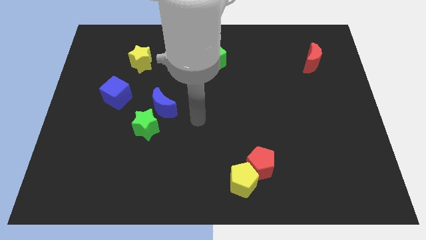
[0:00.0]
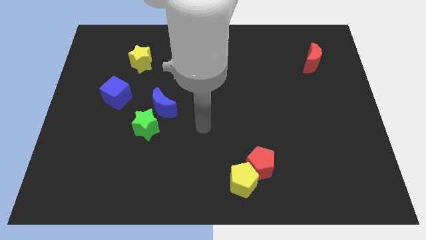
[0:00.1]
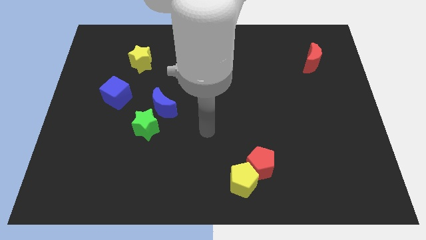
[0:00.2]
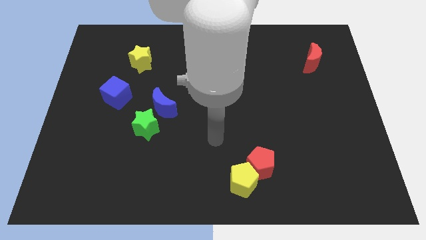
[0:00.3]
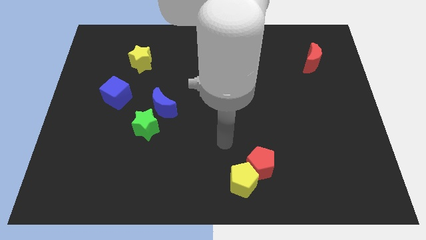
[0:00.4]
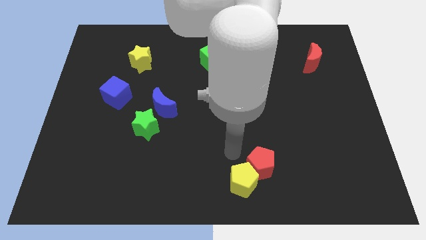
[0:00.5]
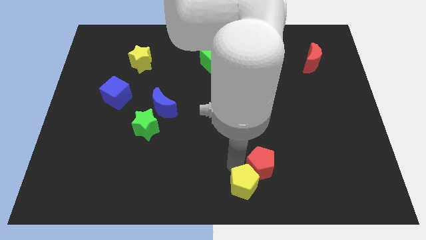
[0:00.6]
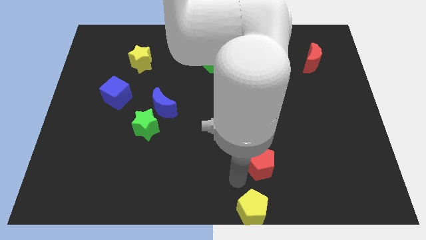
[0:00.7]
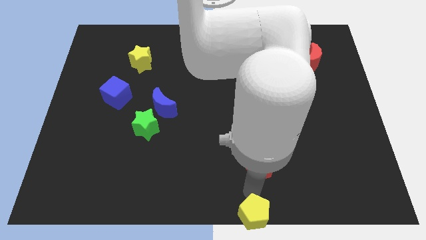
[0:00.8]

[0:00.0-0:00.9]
move the red pentagon away from the yellow pentagon

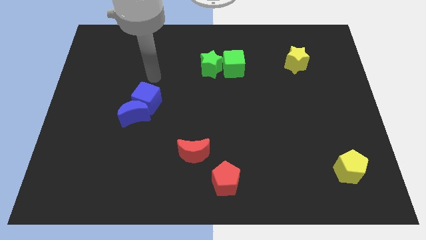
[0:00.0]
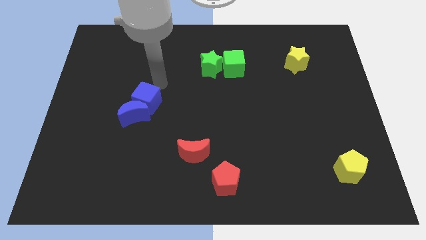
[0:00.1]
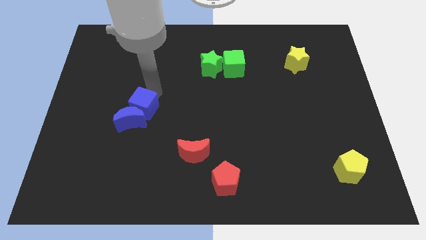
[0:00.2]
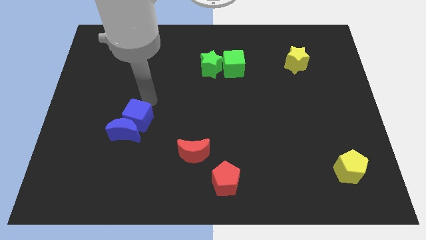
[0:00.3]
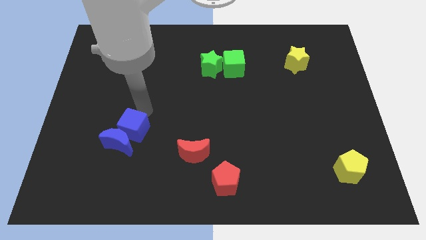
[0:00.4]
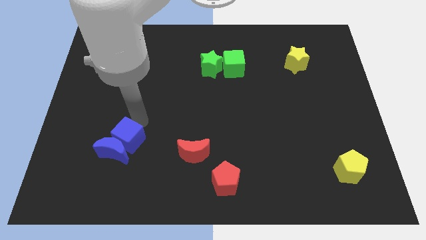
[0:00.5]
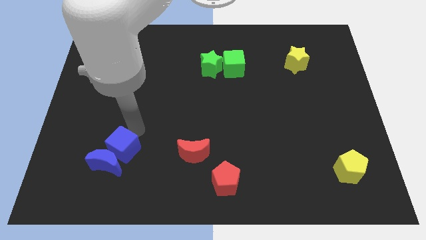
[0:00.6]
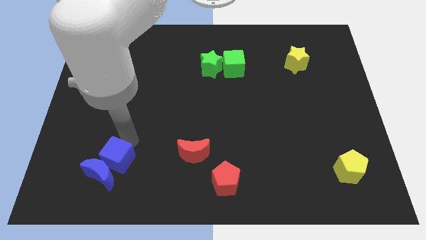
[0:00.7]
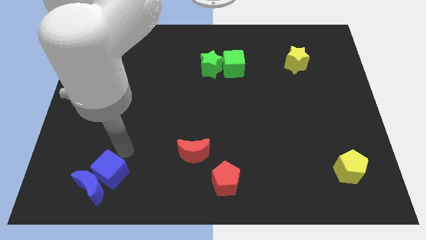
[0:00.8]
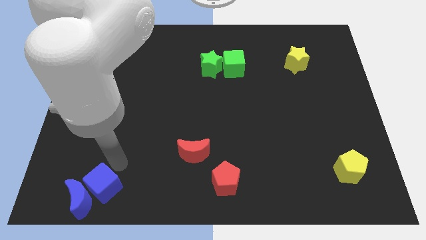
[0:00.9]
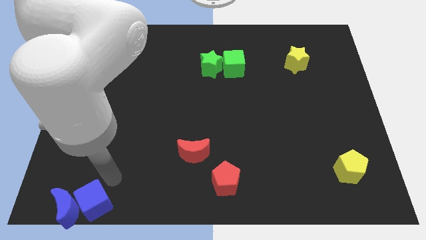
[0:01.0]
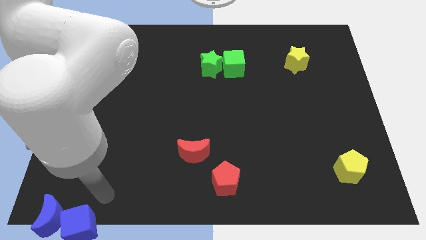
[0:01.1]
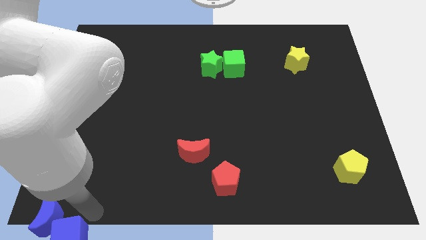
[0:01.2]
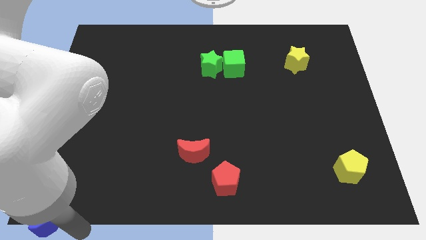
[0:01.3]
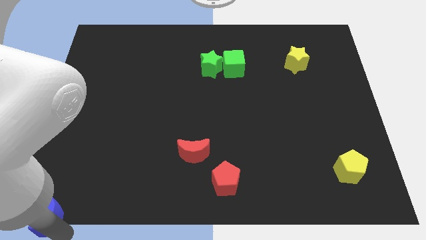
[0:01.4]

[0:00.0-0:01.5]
separate the blue moon from the blue cube

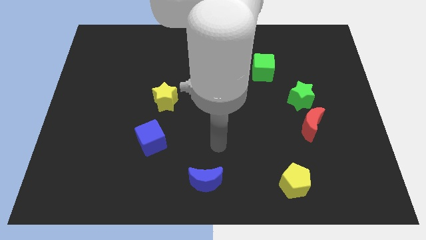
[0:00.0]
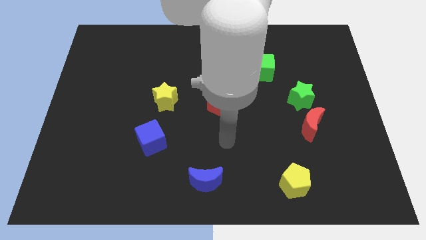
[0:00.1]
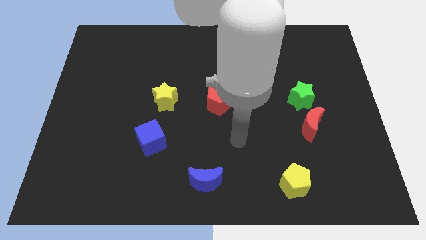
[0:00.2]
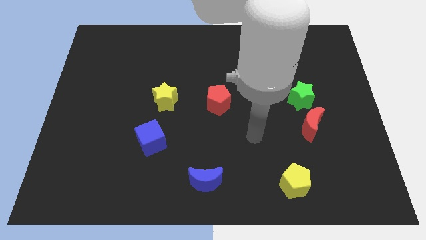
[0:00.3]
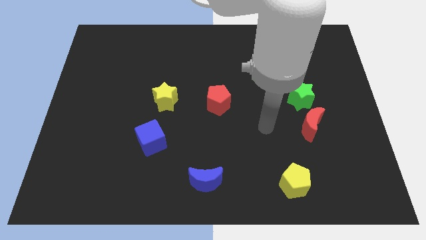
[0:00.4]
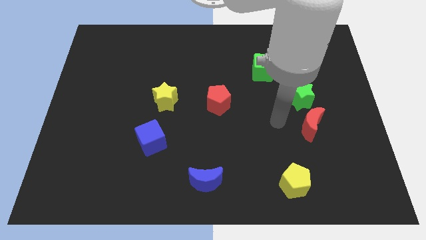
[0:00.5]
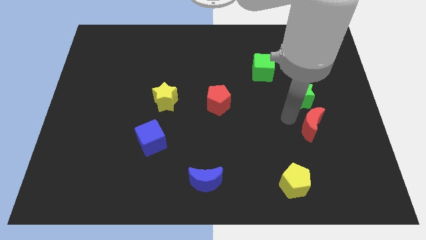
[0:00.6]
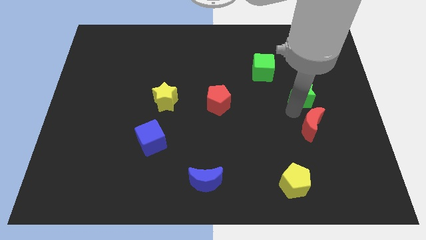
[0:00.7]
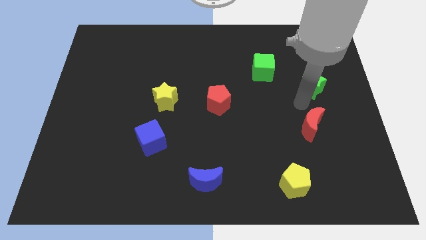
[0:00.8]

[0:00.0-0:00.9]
pull the red moon apart from the green star

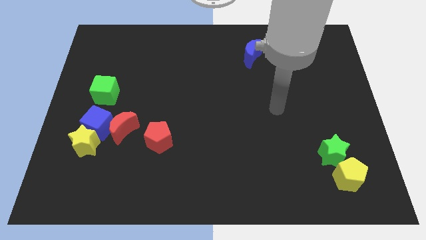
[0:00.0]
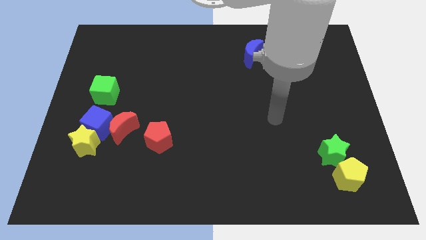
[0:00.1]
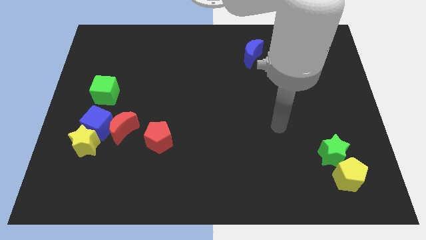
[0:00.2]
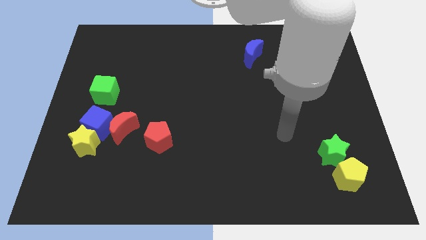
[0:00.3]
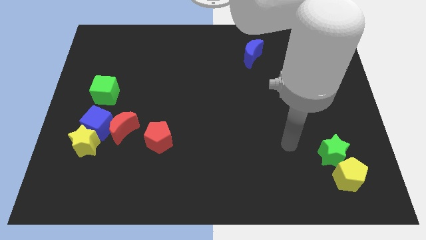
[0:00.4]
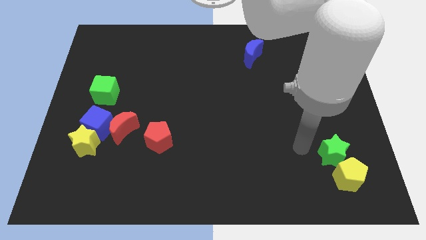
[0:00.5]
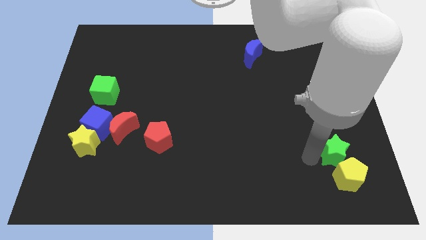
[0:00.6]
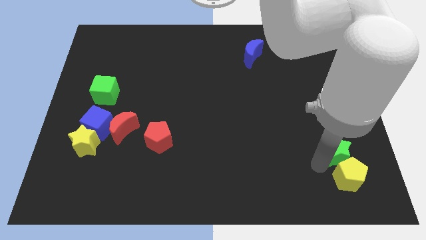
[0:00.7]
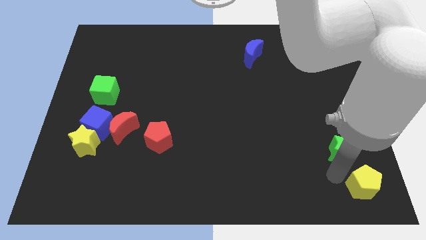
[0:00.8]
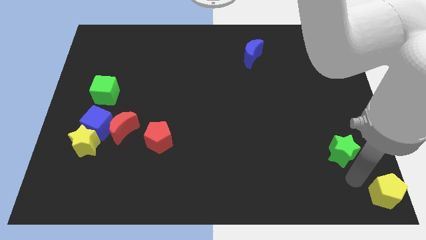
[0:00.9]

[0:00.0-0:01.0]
separate the green star from the yellow pentagon

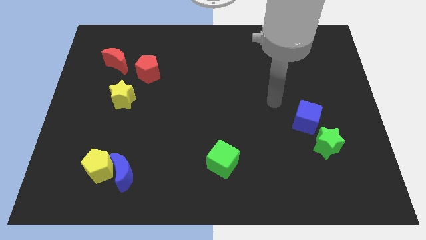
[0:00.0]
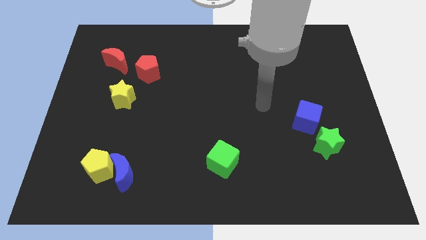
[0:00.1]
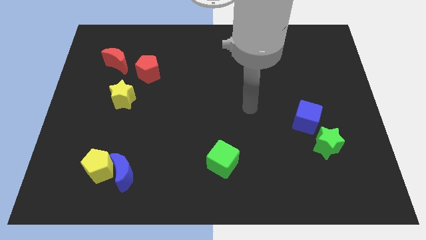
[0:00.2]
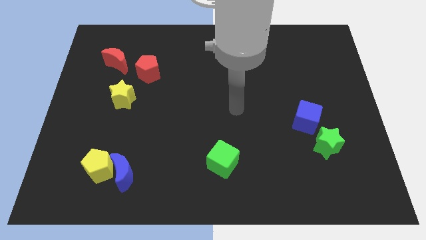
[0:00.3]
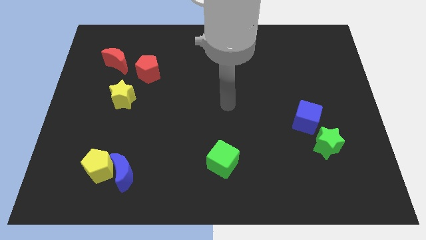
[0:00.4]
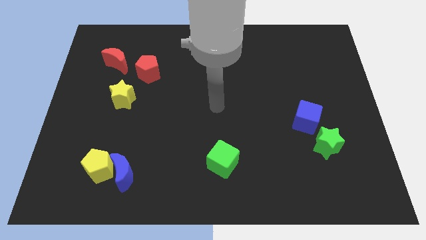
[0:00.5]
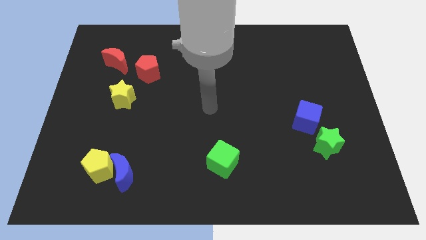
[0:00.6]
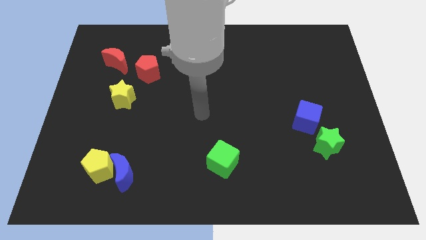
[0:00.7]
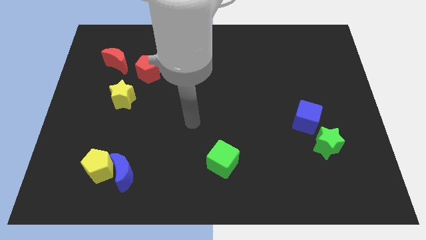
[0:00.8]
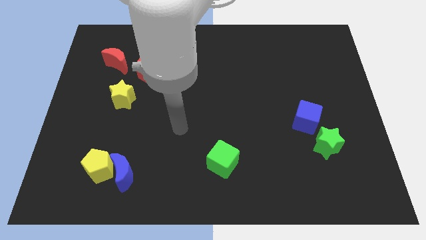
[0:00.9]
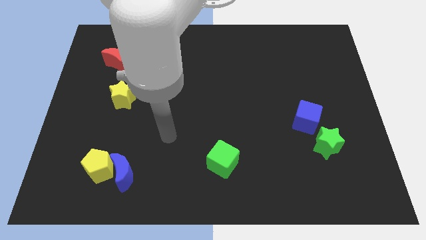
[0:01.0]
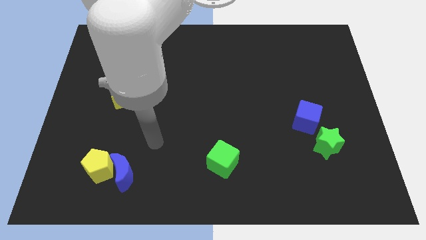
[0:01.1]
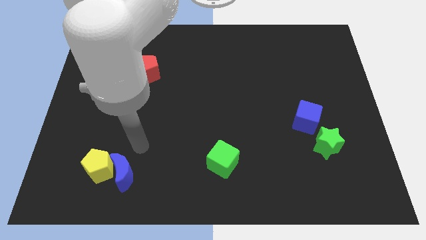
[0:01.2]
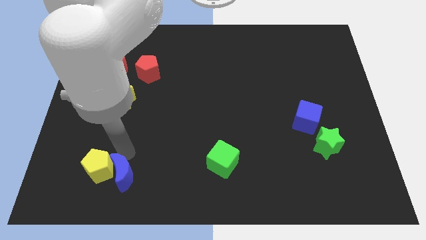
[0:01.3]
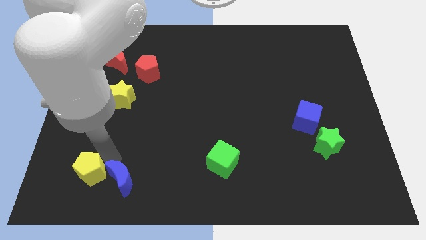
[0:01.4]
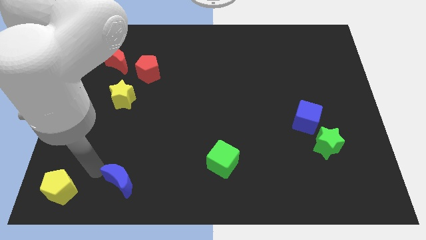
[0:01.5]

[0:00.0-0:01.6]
separate the blue moon from the yellow pentagon

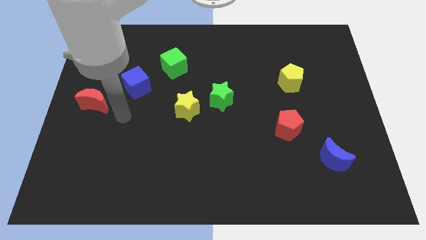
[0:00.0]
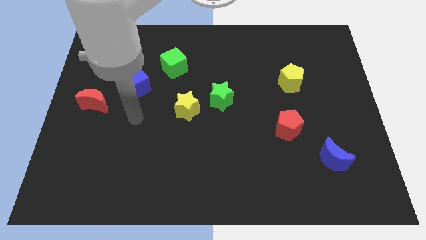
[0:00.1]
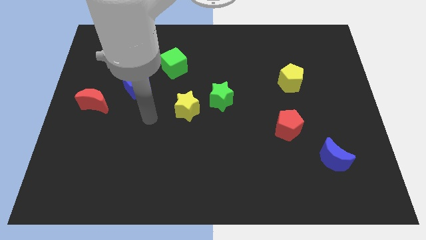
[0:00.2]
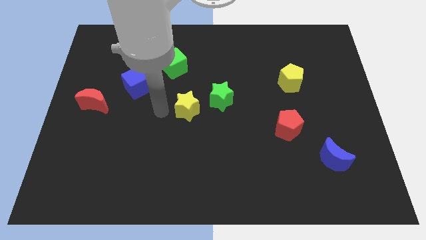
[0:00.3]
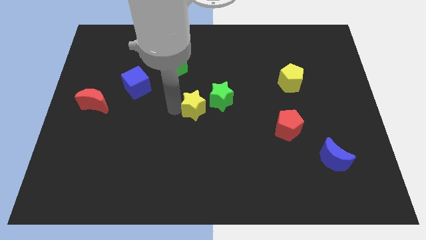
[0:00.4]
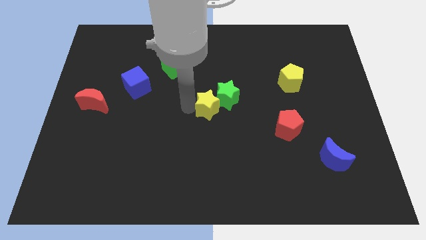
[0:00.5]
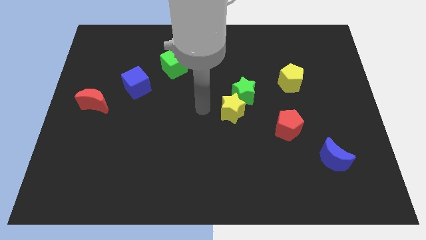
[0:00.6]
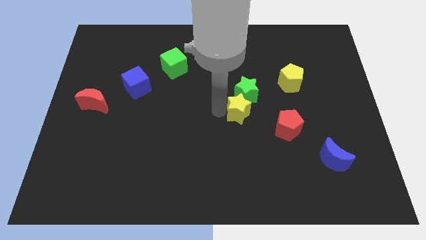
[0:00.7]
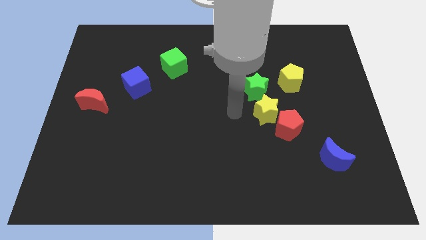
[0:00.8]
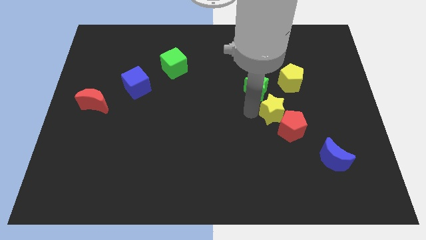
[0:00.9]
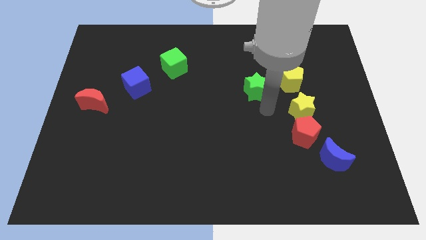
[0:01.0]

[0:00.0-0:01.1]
pull the green star apart from the yellow star

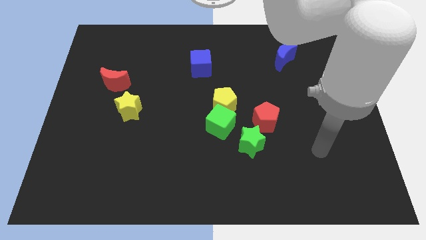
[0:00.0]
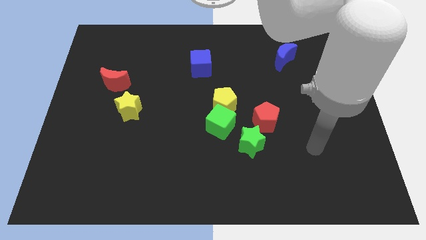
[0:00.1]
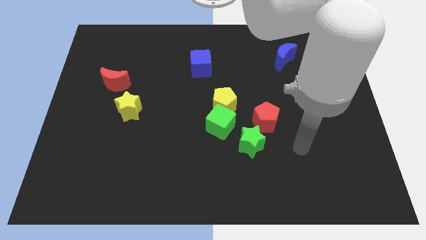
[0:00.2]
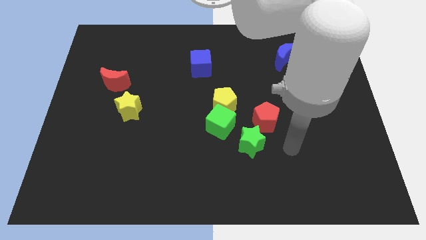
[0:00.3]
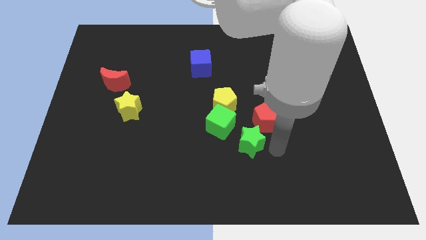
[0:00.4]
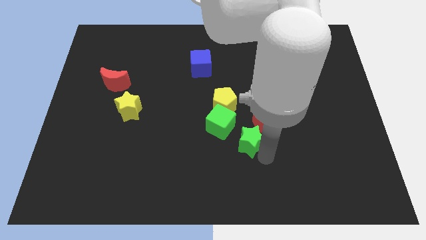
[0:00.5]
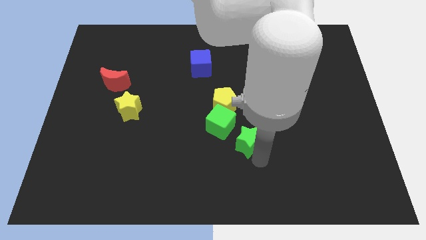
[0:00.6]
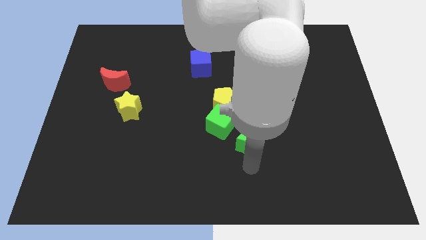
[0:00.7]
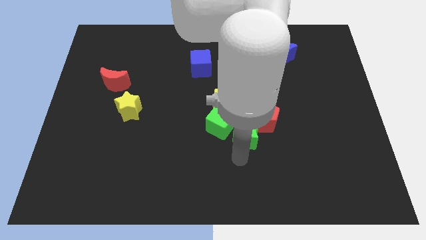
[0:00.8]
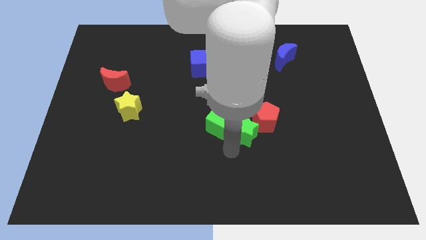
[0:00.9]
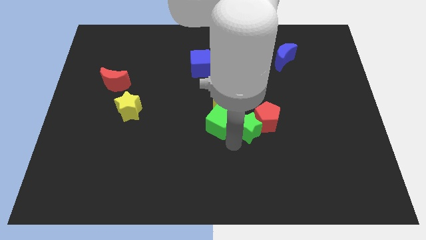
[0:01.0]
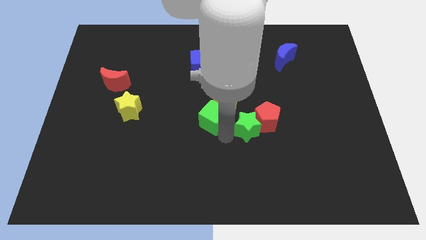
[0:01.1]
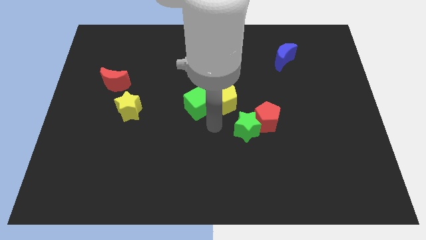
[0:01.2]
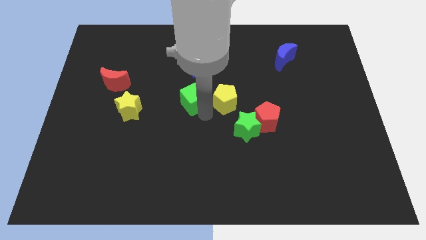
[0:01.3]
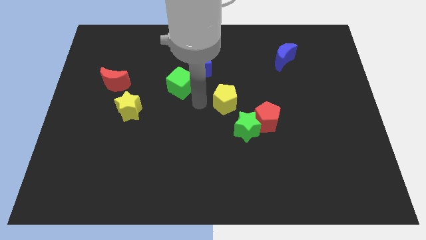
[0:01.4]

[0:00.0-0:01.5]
move the yellow pentagon away from the green cube

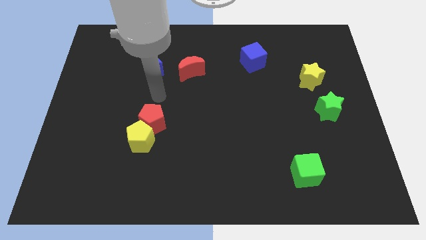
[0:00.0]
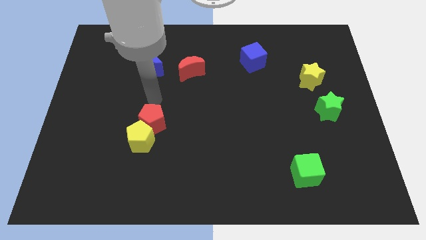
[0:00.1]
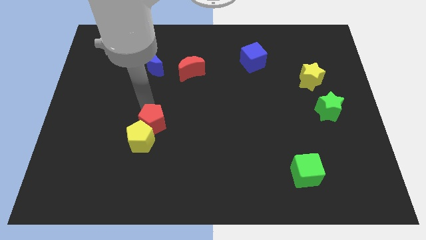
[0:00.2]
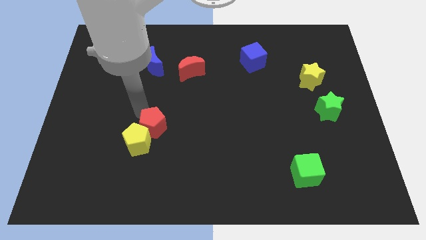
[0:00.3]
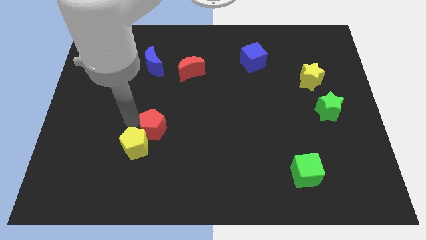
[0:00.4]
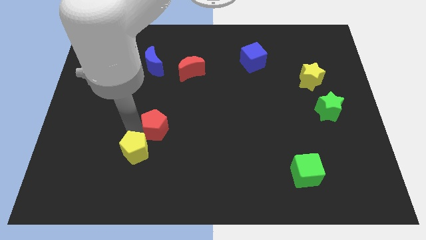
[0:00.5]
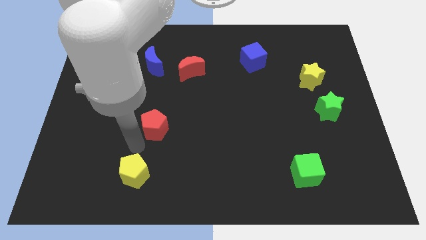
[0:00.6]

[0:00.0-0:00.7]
pull the red pentagon apart from the yellow pentagon
